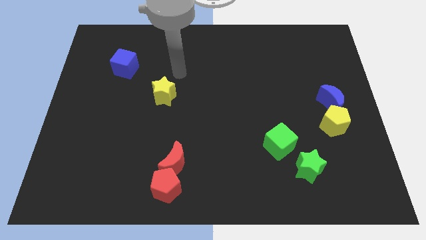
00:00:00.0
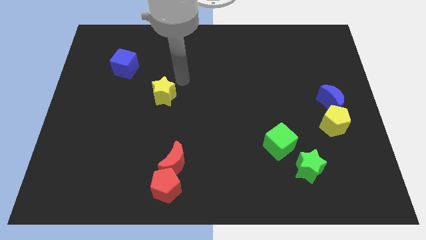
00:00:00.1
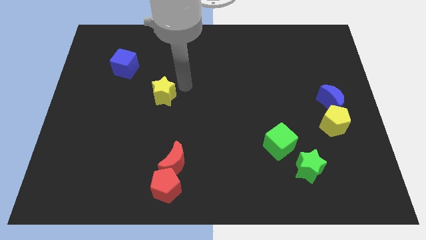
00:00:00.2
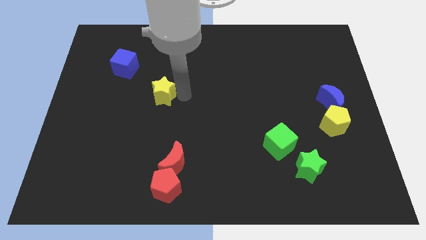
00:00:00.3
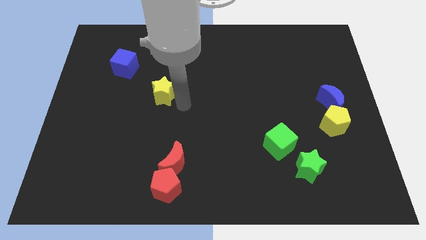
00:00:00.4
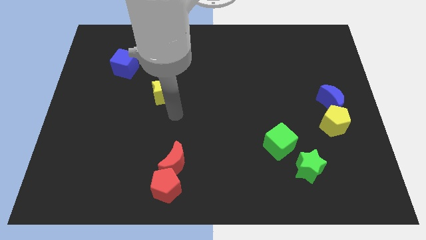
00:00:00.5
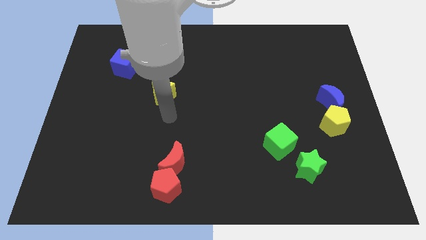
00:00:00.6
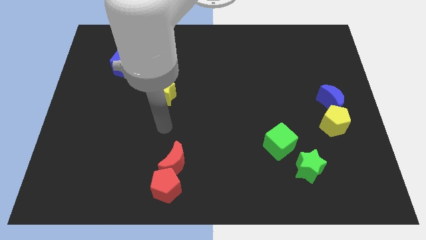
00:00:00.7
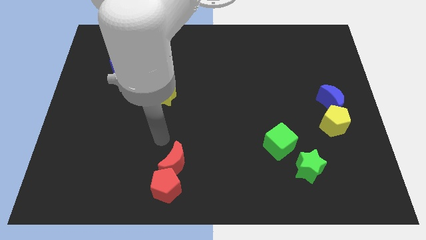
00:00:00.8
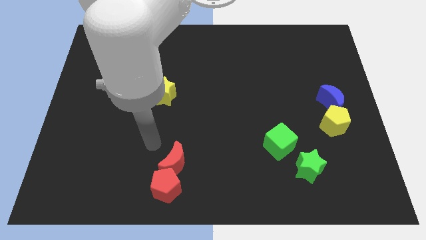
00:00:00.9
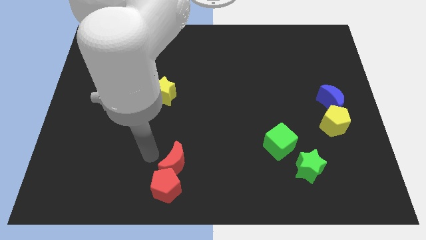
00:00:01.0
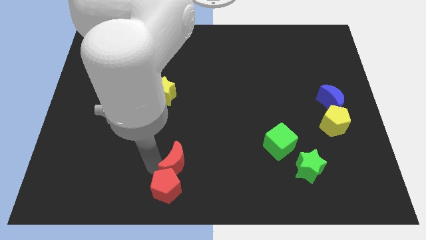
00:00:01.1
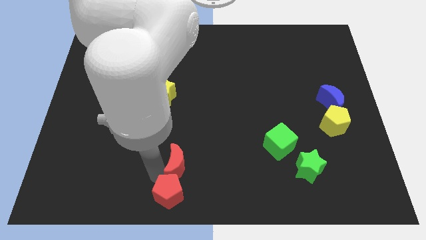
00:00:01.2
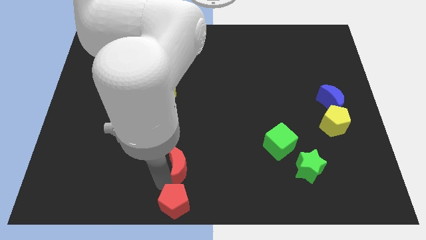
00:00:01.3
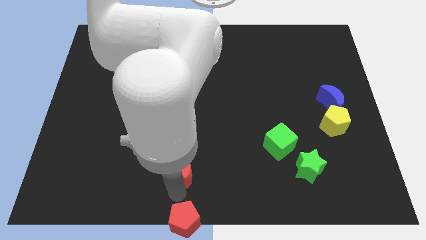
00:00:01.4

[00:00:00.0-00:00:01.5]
separate the red moon from the red pentagon

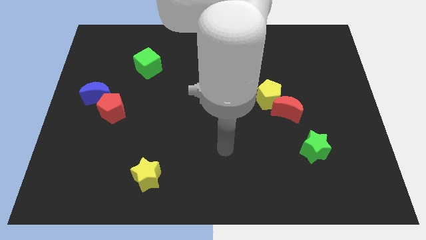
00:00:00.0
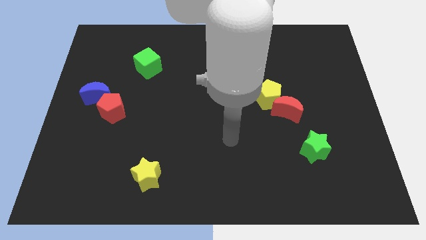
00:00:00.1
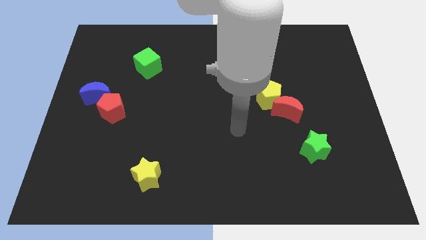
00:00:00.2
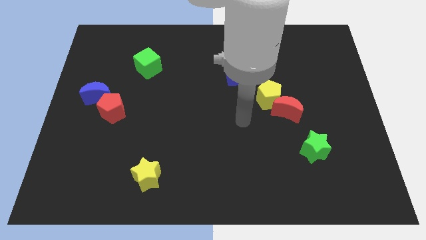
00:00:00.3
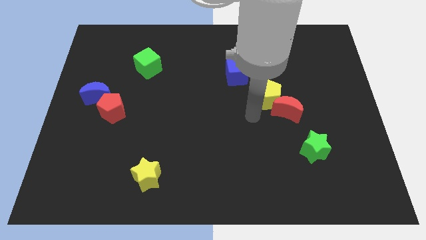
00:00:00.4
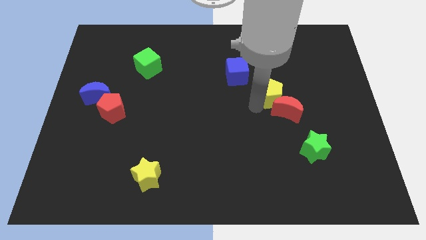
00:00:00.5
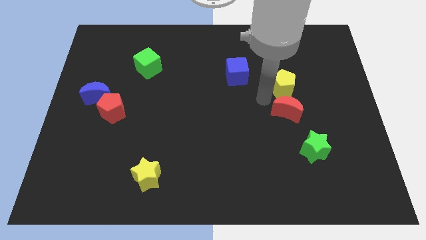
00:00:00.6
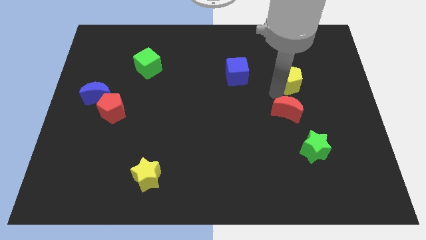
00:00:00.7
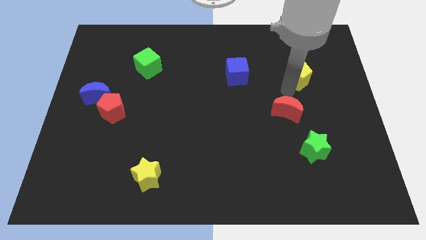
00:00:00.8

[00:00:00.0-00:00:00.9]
pull the red moon apart from the yellow pentagon

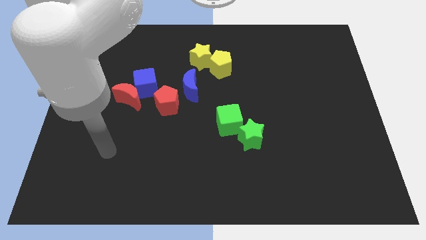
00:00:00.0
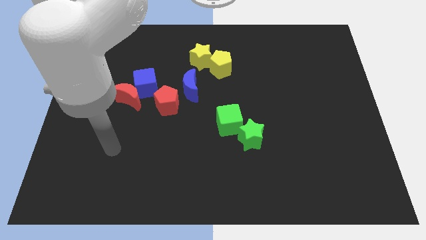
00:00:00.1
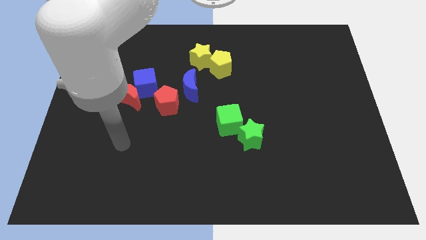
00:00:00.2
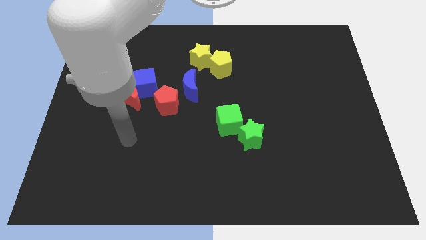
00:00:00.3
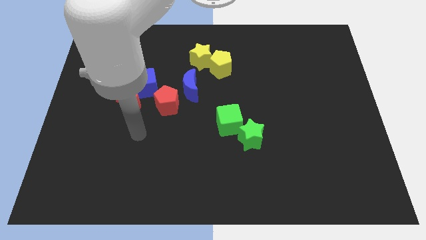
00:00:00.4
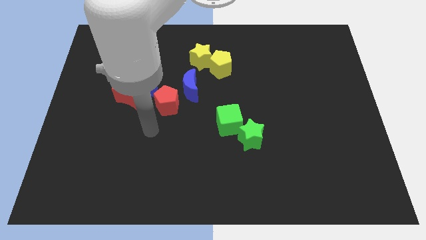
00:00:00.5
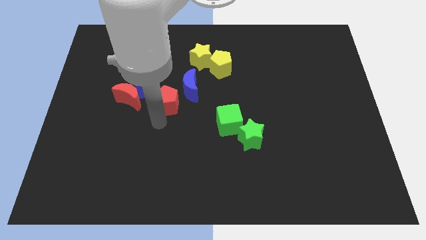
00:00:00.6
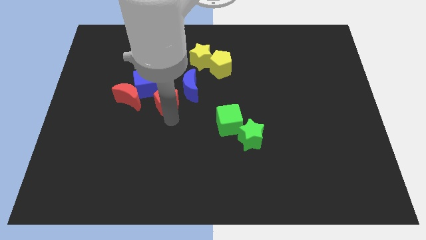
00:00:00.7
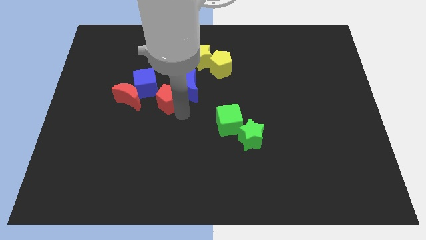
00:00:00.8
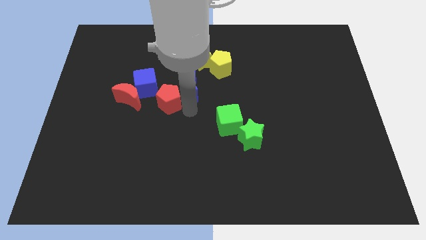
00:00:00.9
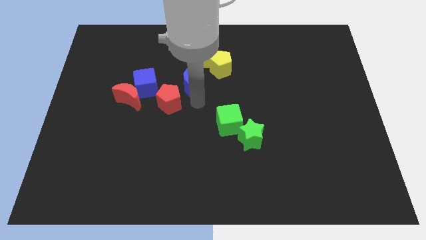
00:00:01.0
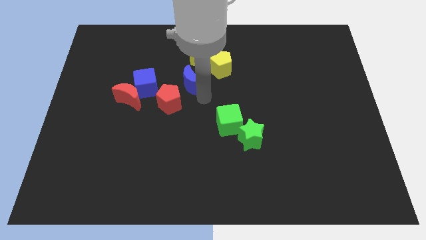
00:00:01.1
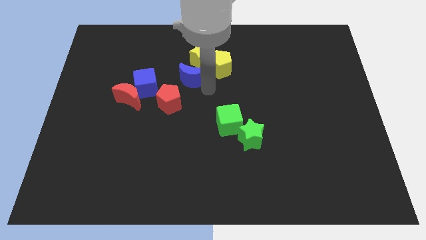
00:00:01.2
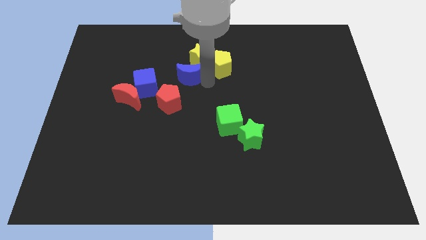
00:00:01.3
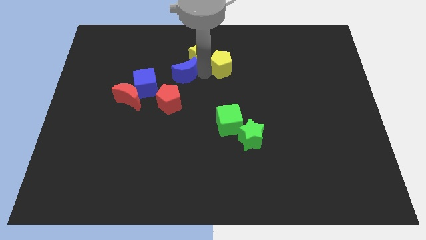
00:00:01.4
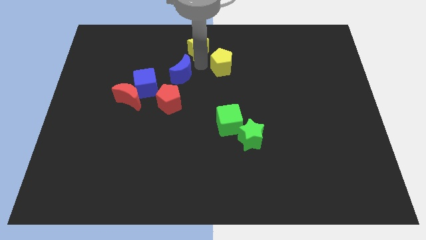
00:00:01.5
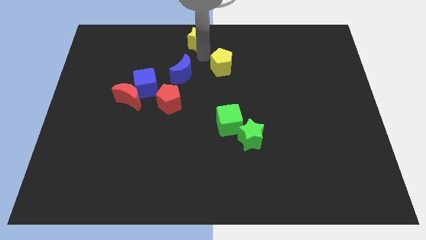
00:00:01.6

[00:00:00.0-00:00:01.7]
pull the yellow pentagon apart from the yellow star

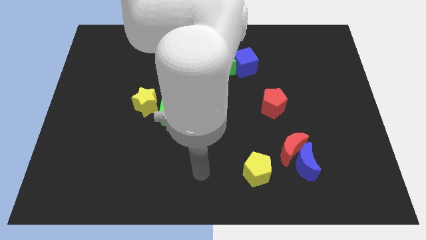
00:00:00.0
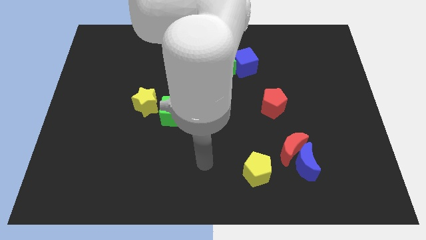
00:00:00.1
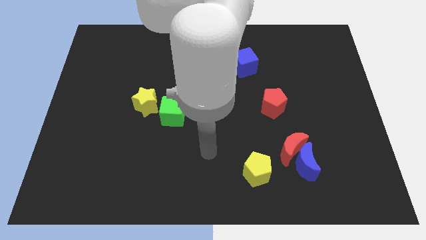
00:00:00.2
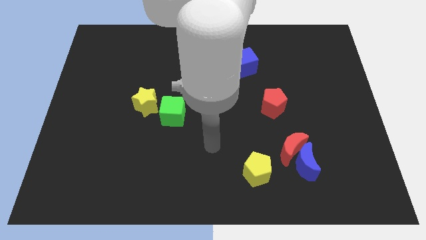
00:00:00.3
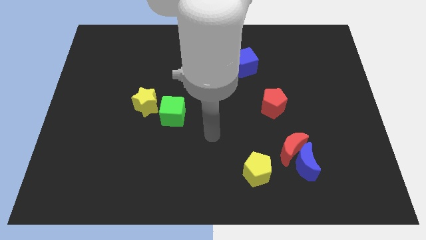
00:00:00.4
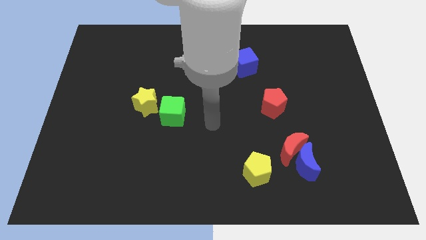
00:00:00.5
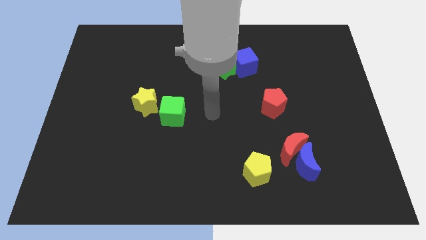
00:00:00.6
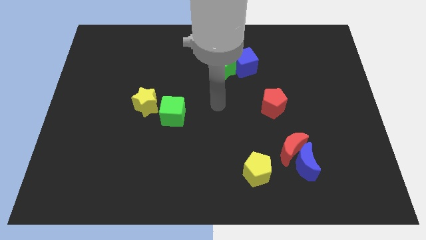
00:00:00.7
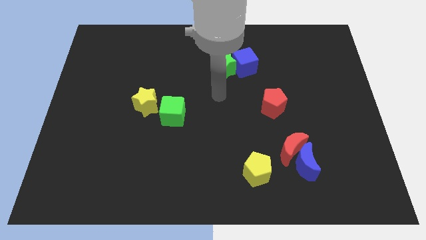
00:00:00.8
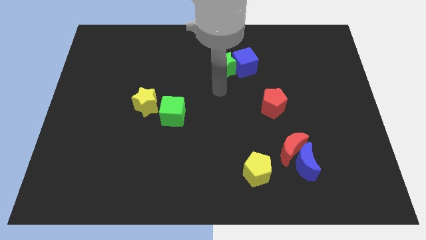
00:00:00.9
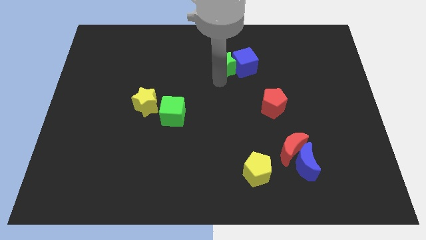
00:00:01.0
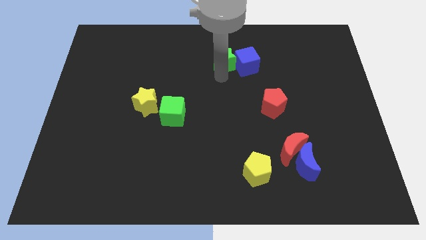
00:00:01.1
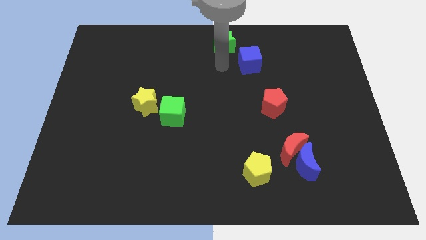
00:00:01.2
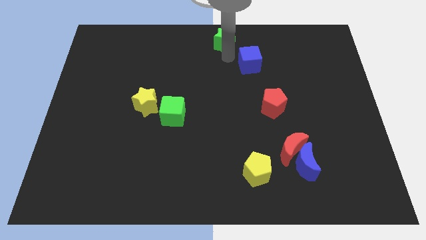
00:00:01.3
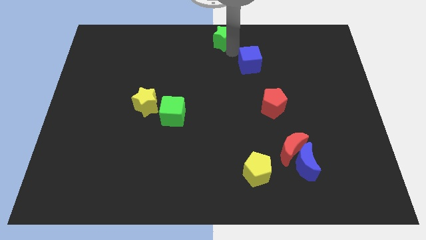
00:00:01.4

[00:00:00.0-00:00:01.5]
pull the blue cube apart from the green star

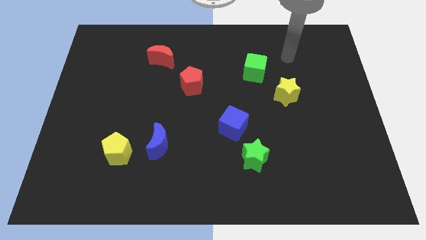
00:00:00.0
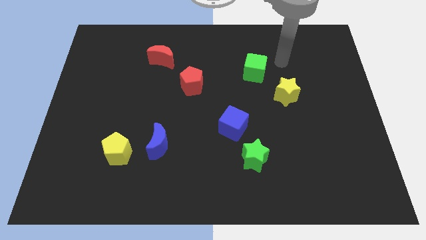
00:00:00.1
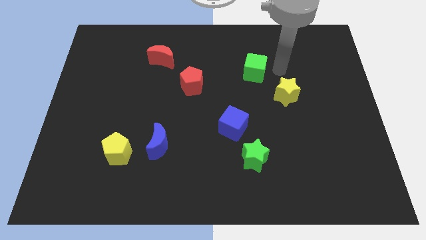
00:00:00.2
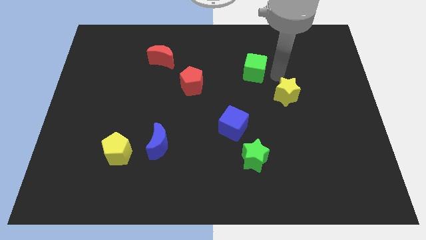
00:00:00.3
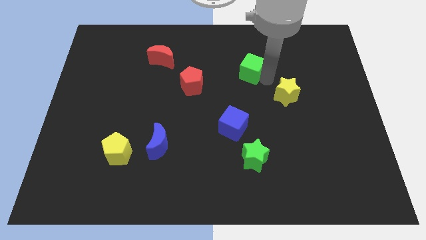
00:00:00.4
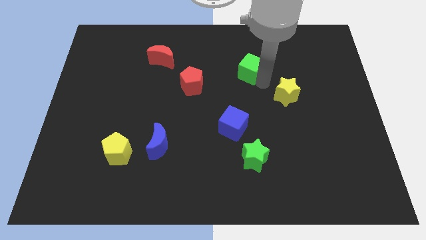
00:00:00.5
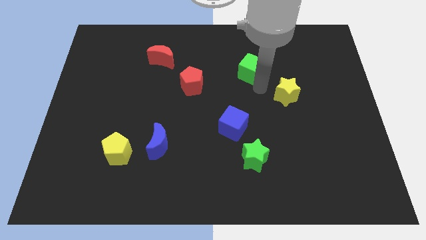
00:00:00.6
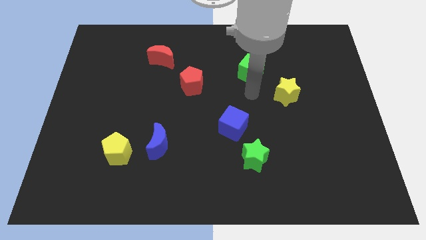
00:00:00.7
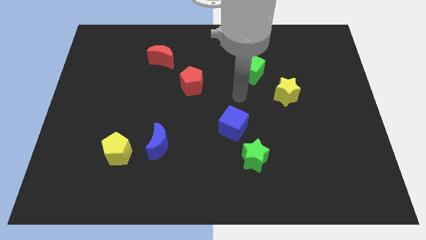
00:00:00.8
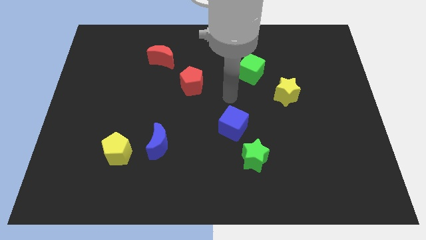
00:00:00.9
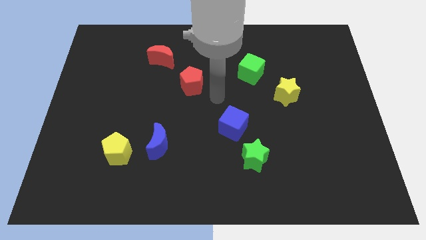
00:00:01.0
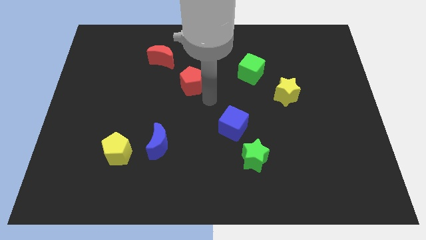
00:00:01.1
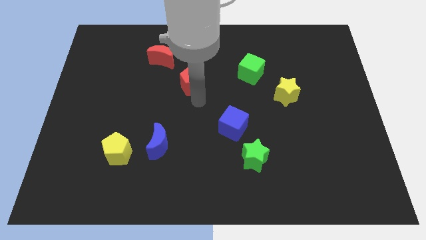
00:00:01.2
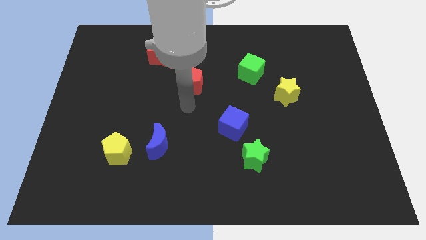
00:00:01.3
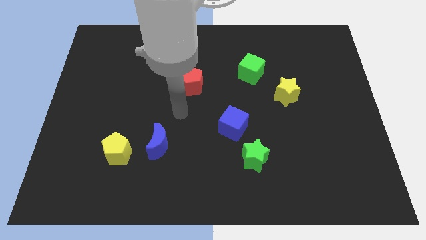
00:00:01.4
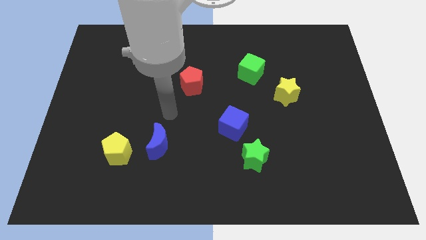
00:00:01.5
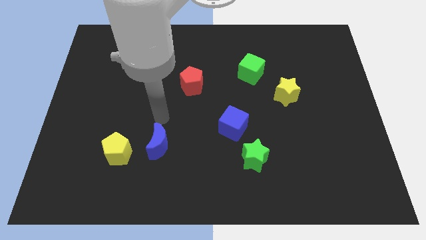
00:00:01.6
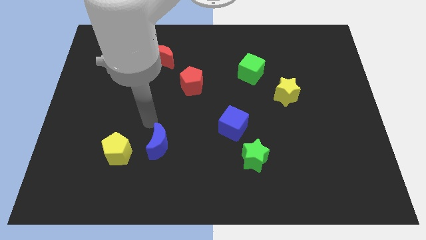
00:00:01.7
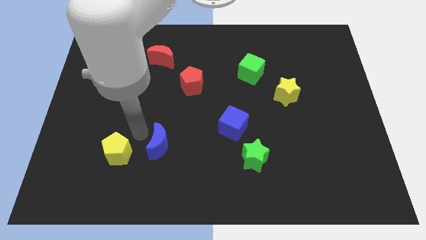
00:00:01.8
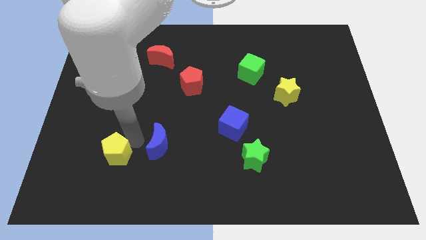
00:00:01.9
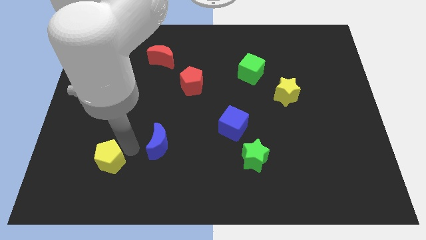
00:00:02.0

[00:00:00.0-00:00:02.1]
separate the blue moon from the yellow pentagon

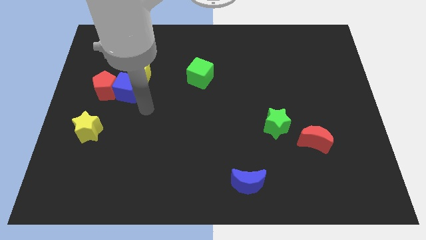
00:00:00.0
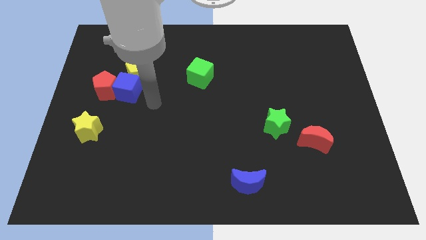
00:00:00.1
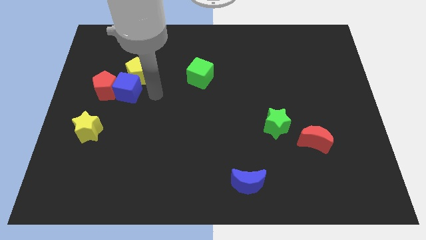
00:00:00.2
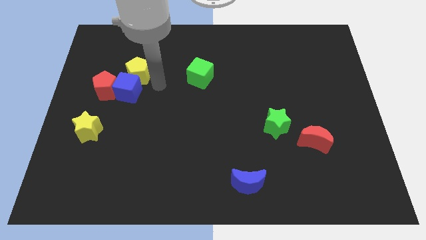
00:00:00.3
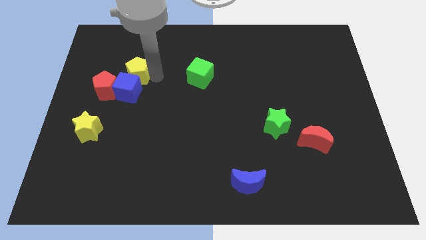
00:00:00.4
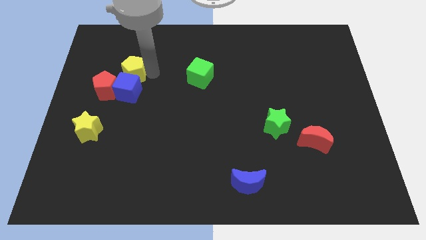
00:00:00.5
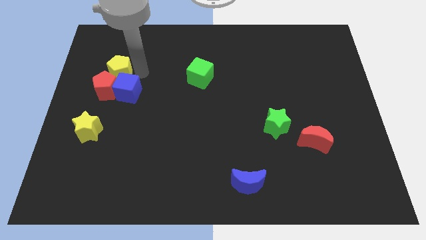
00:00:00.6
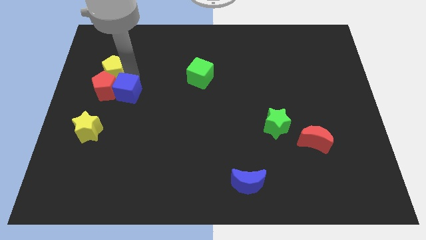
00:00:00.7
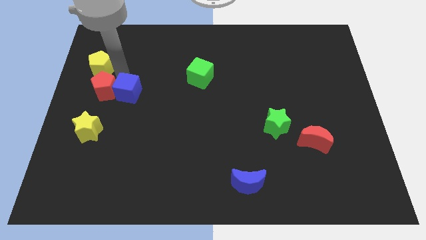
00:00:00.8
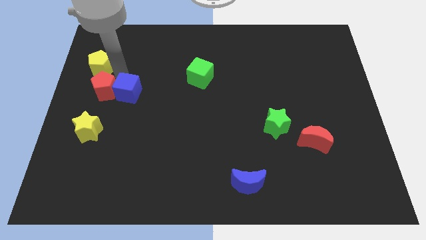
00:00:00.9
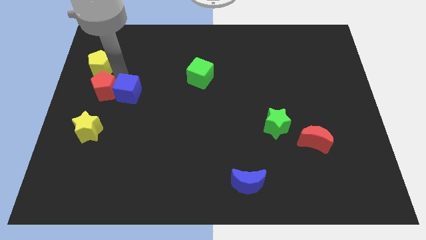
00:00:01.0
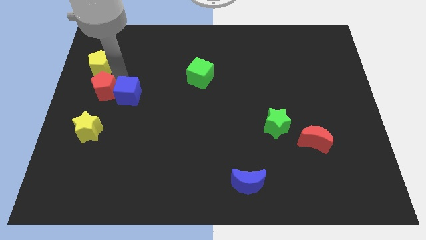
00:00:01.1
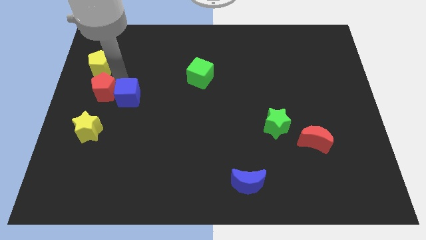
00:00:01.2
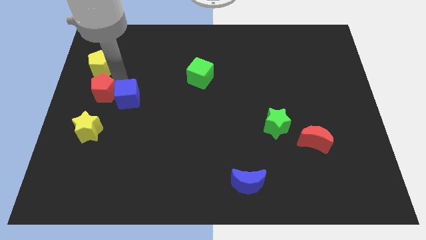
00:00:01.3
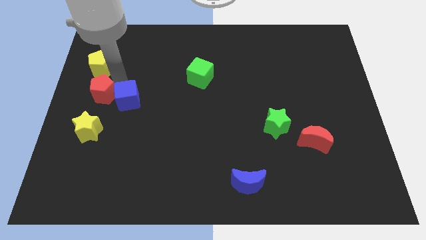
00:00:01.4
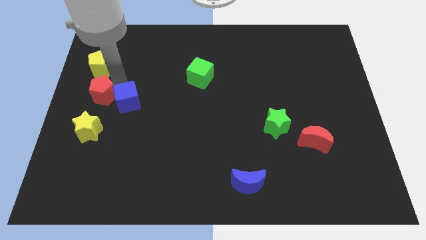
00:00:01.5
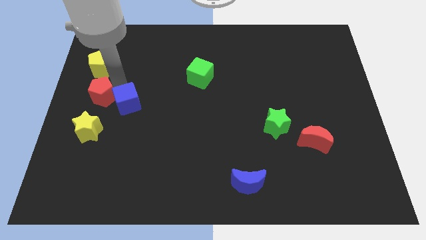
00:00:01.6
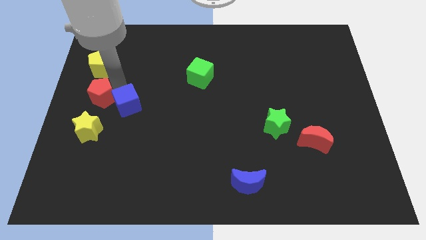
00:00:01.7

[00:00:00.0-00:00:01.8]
move the blue cube away from the red pentagon and yellow pentagon

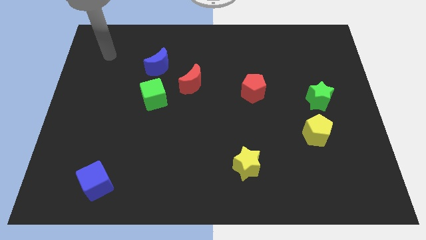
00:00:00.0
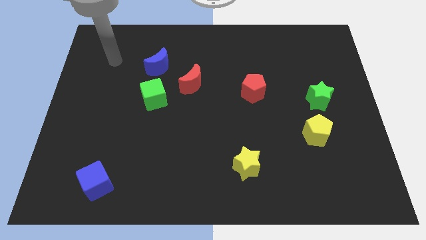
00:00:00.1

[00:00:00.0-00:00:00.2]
pull the red moon apart from the green cube
